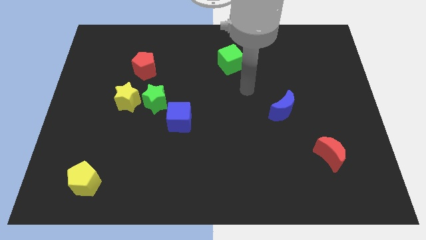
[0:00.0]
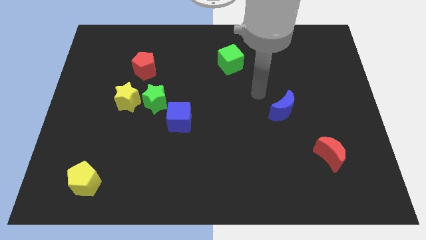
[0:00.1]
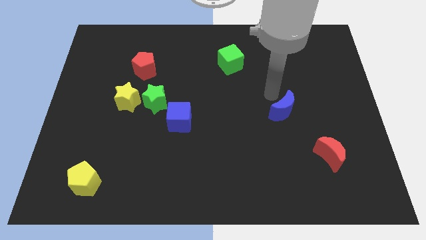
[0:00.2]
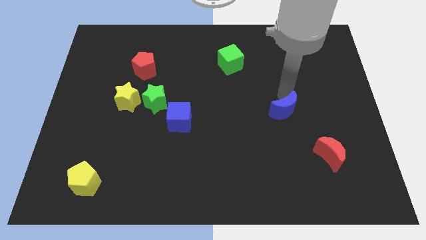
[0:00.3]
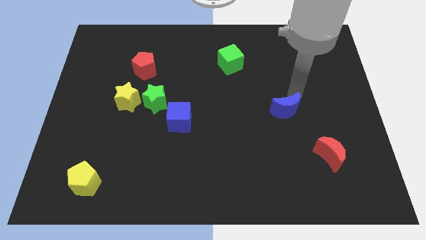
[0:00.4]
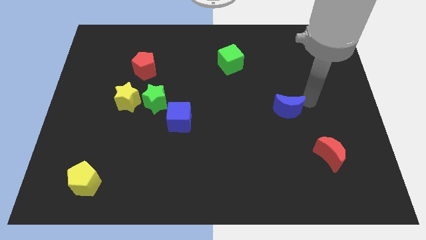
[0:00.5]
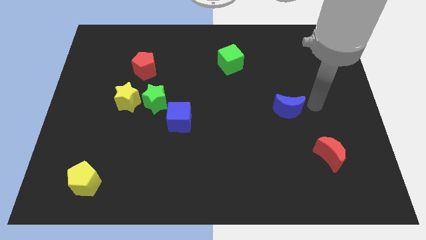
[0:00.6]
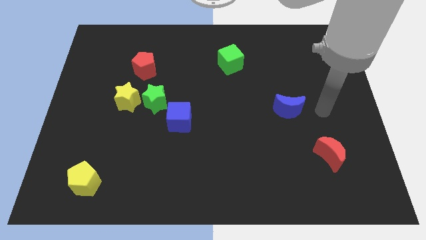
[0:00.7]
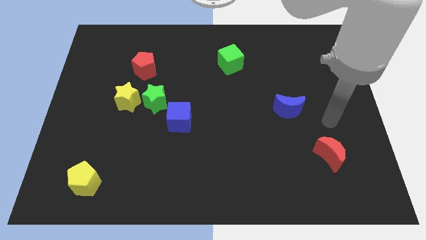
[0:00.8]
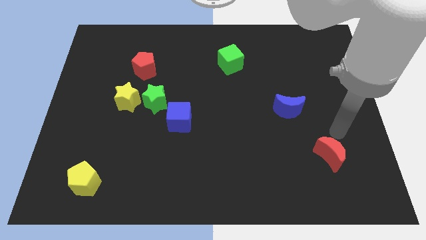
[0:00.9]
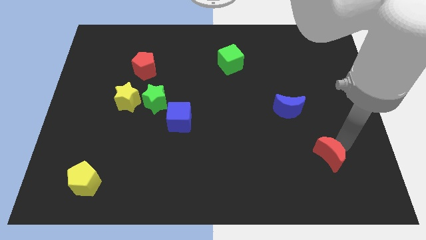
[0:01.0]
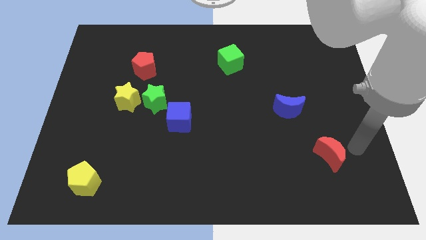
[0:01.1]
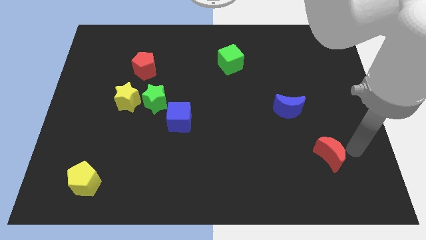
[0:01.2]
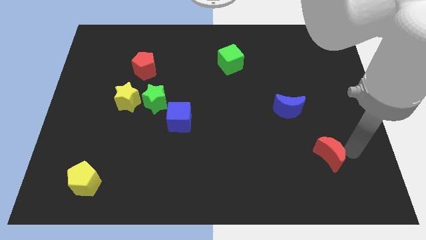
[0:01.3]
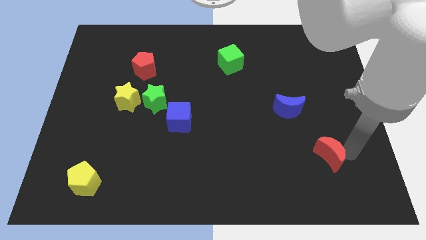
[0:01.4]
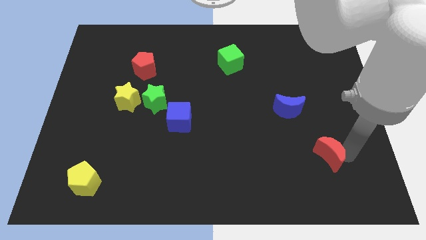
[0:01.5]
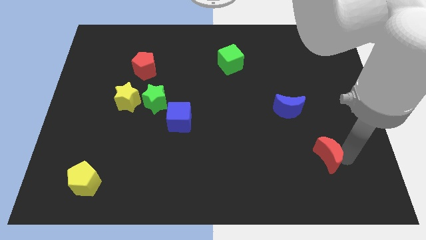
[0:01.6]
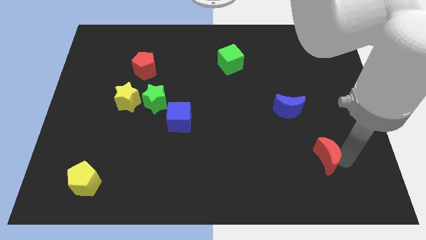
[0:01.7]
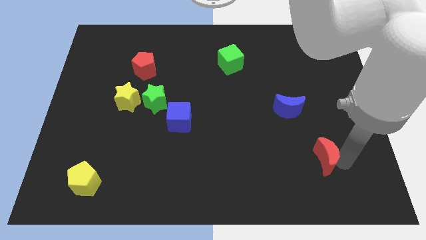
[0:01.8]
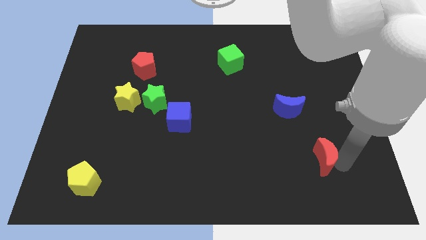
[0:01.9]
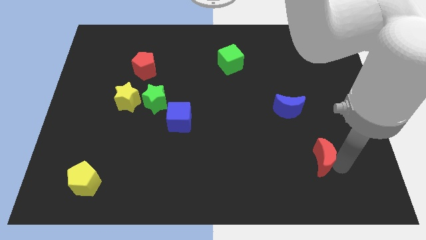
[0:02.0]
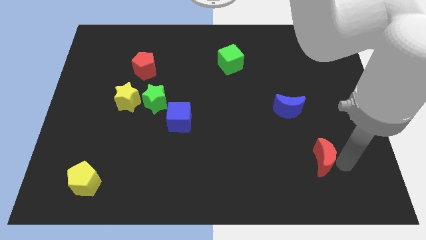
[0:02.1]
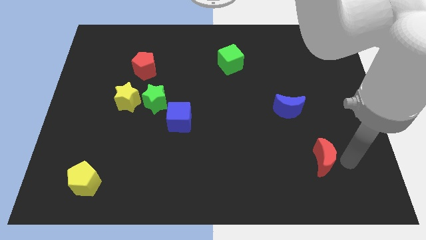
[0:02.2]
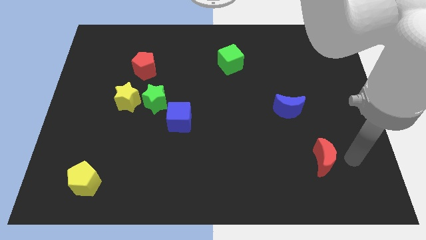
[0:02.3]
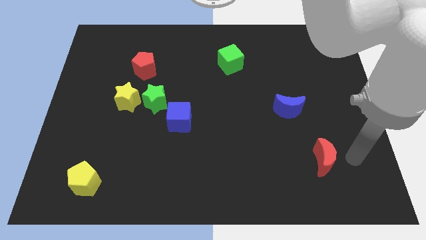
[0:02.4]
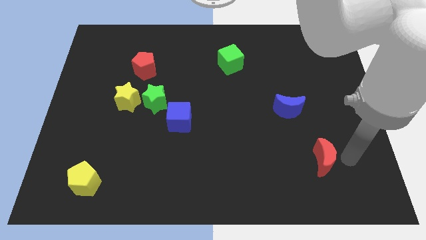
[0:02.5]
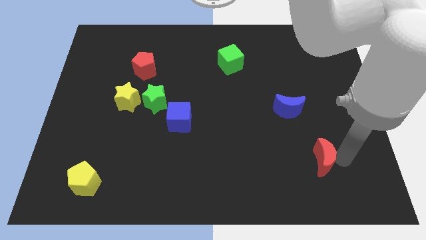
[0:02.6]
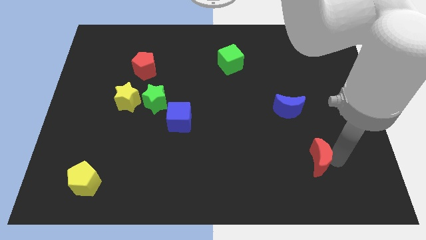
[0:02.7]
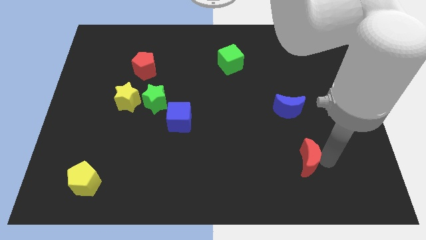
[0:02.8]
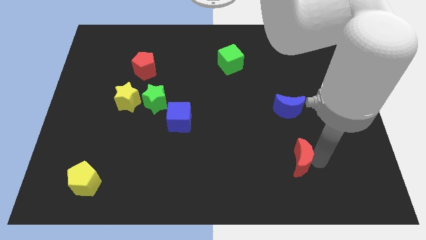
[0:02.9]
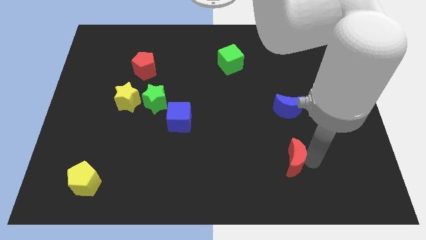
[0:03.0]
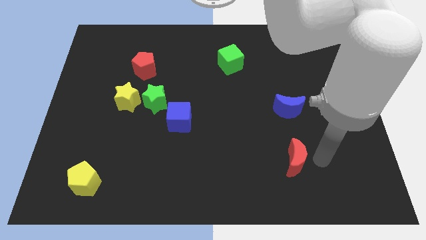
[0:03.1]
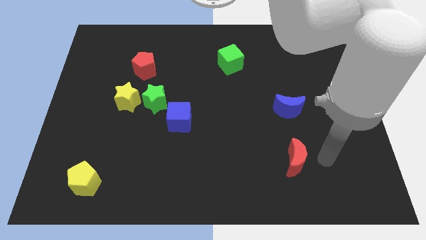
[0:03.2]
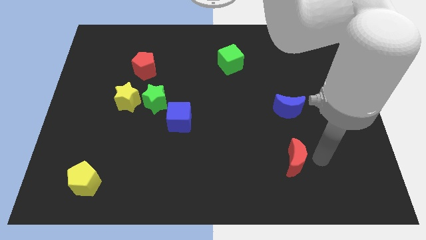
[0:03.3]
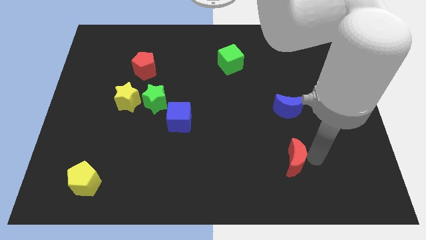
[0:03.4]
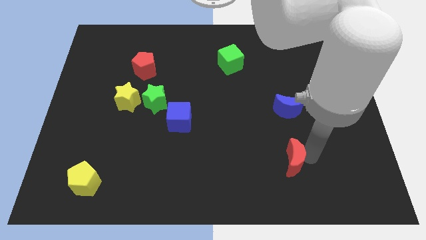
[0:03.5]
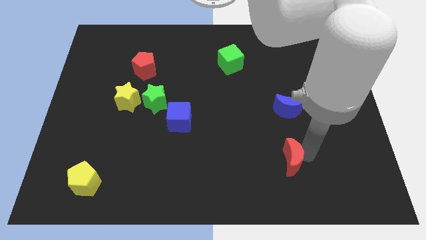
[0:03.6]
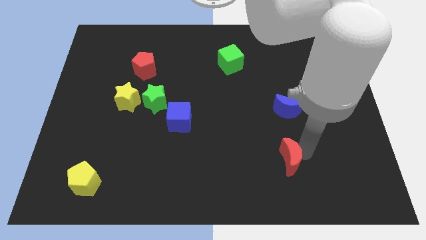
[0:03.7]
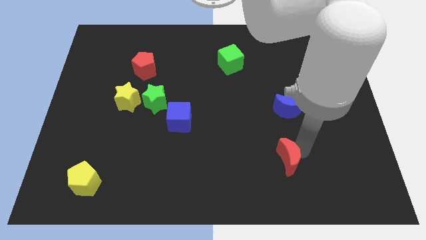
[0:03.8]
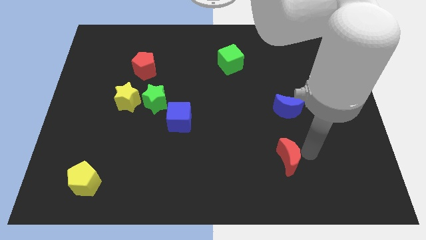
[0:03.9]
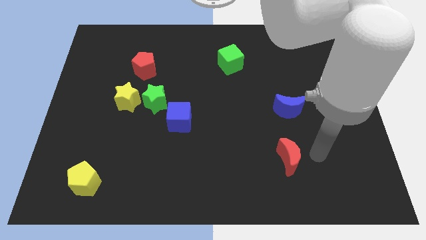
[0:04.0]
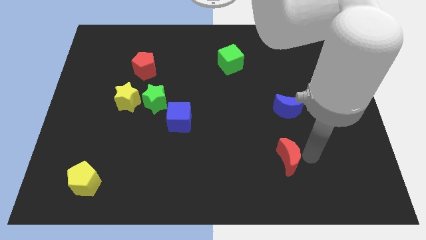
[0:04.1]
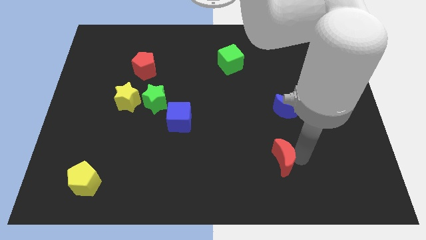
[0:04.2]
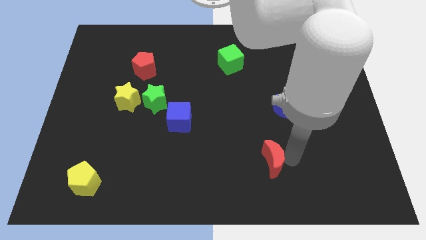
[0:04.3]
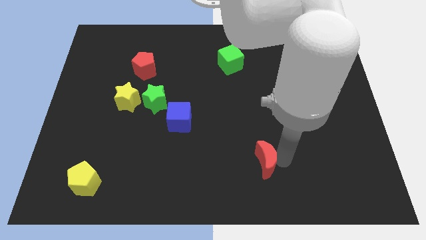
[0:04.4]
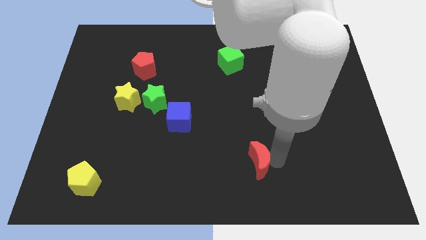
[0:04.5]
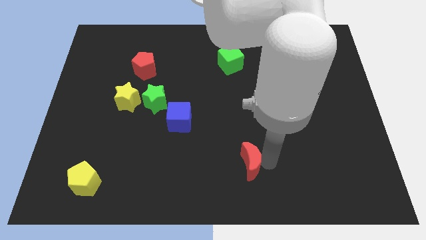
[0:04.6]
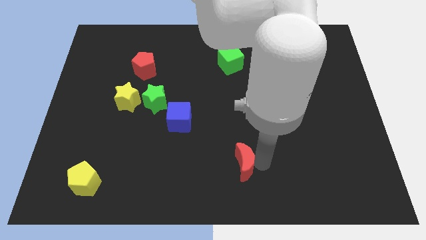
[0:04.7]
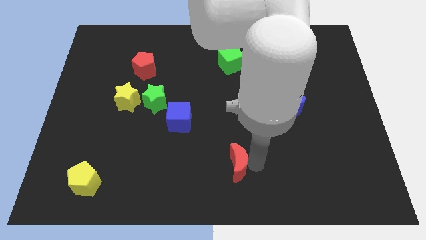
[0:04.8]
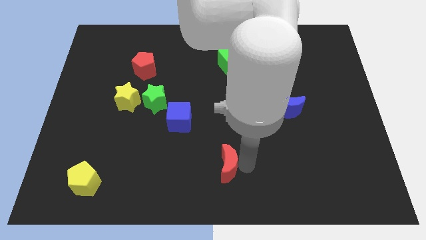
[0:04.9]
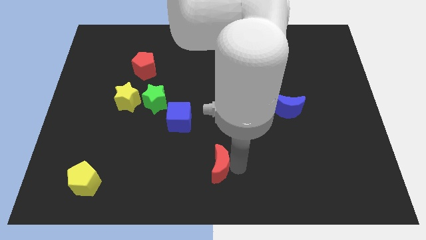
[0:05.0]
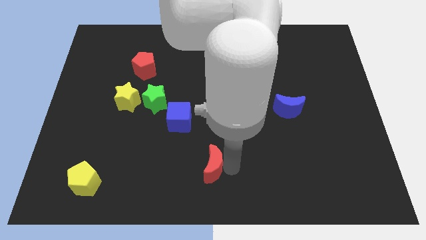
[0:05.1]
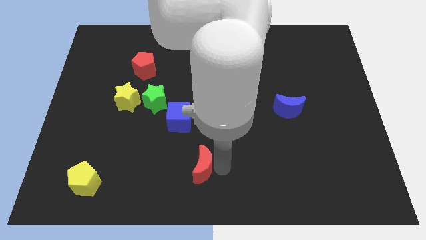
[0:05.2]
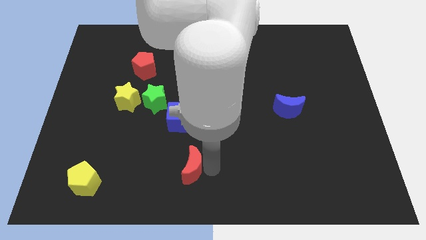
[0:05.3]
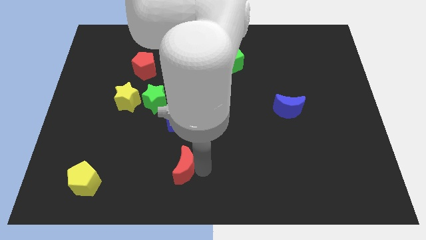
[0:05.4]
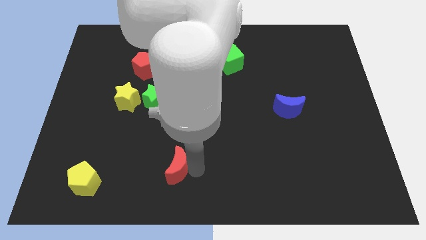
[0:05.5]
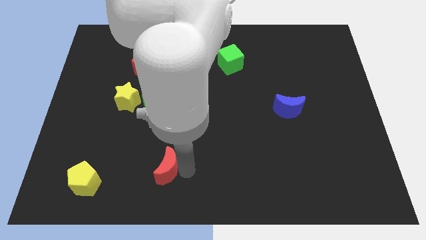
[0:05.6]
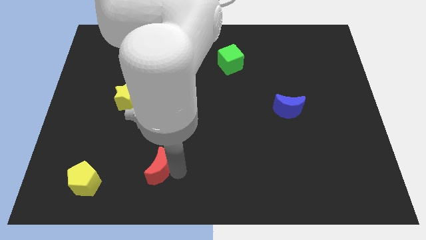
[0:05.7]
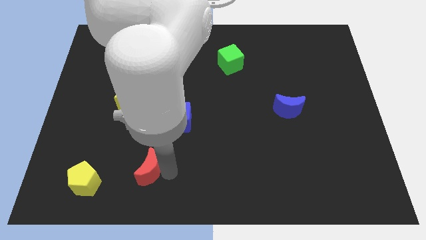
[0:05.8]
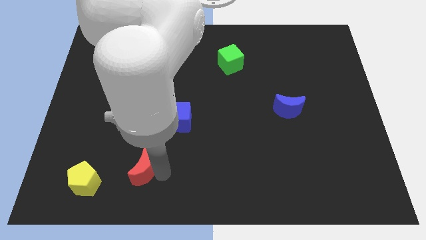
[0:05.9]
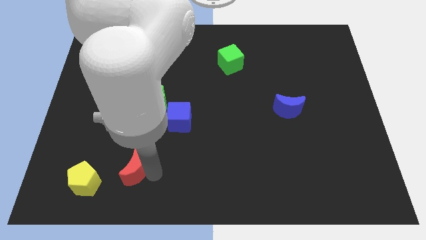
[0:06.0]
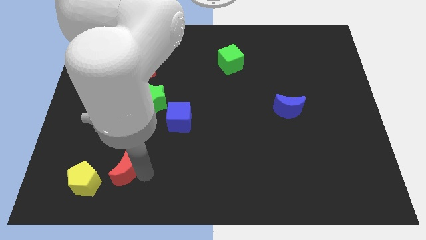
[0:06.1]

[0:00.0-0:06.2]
slide the red moon to the top right of the yellow pentagon
